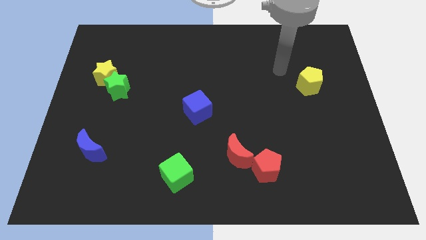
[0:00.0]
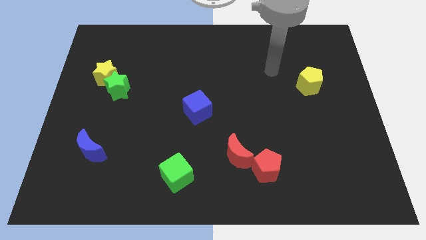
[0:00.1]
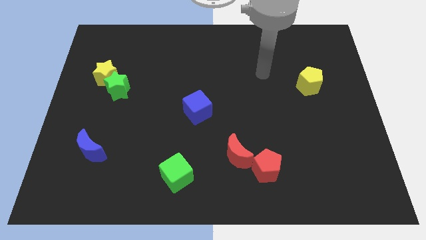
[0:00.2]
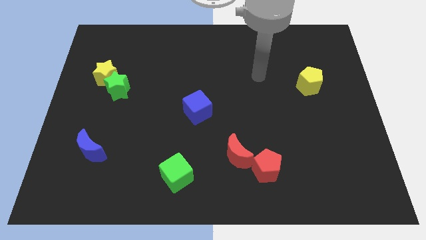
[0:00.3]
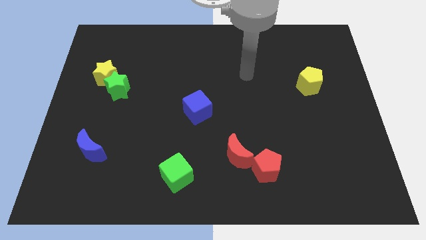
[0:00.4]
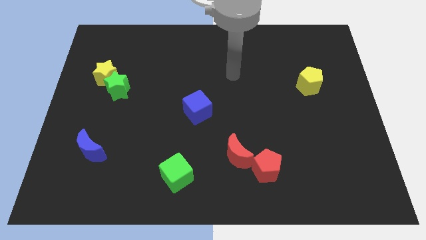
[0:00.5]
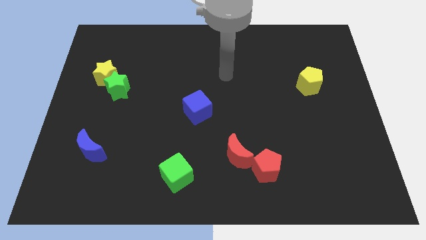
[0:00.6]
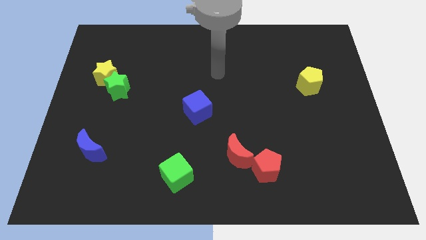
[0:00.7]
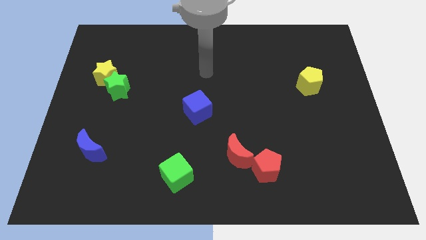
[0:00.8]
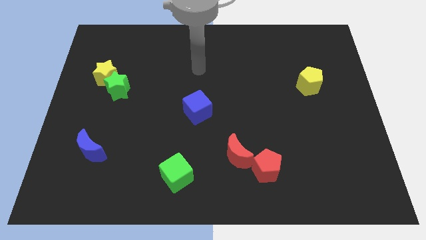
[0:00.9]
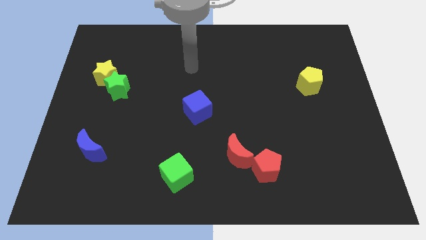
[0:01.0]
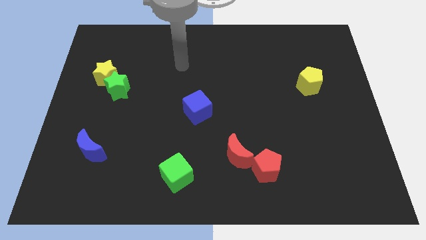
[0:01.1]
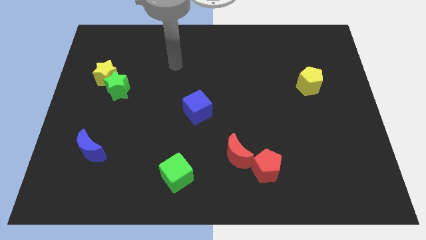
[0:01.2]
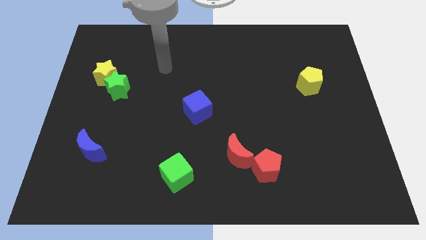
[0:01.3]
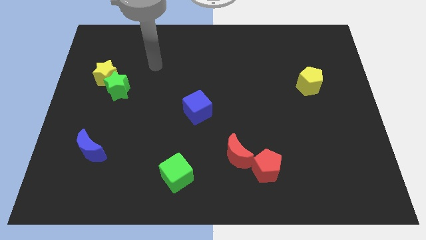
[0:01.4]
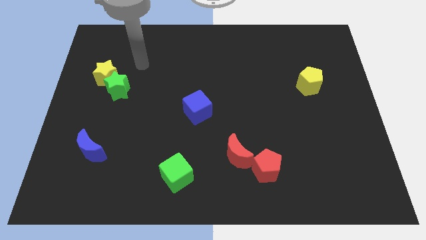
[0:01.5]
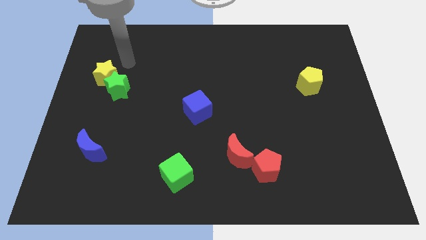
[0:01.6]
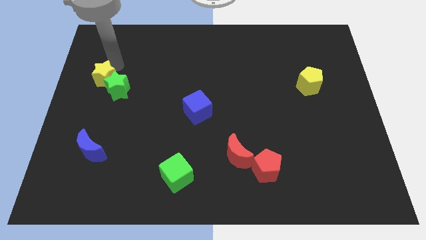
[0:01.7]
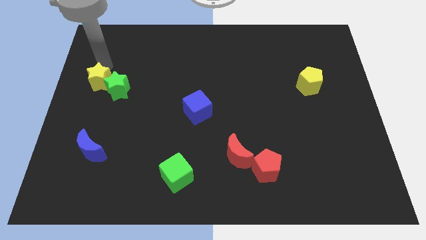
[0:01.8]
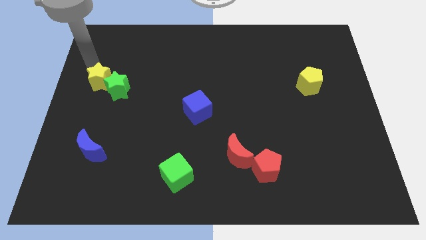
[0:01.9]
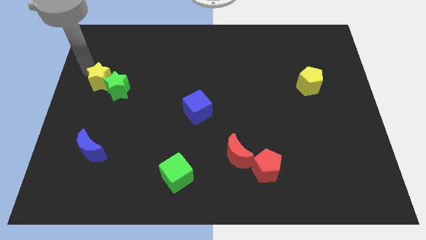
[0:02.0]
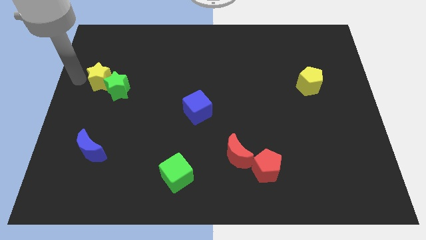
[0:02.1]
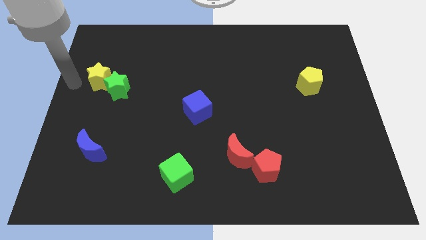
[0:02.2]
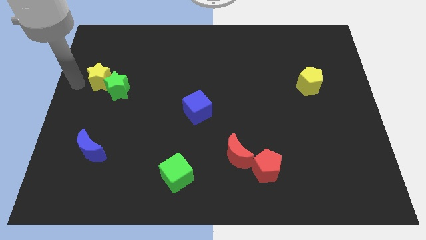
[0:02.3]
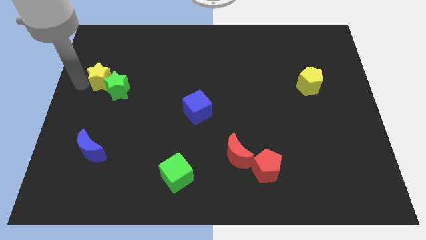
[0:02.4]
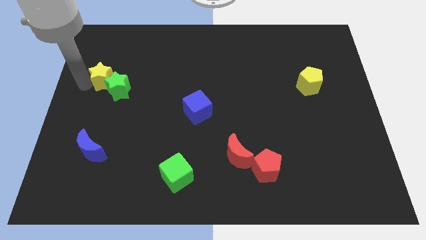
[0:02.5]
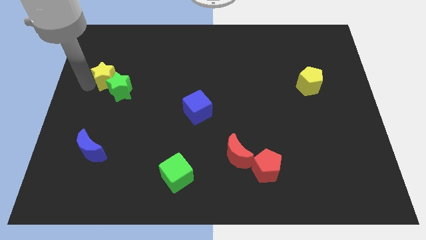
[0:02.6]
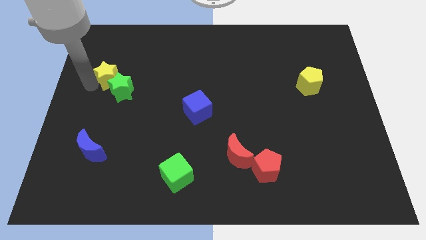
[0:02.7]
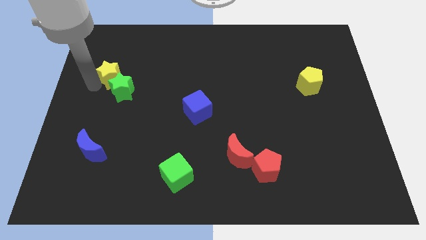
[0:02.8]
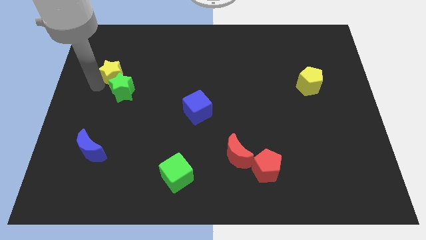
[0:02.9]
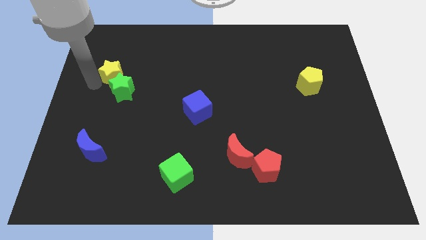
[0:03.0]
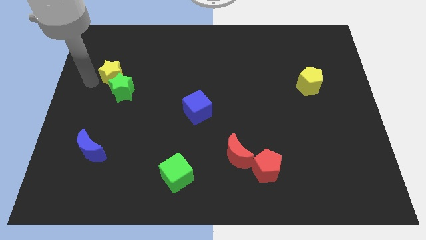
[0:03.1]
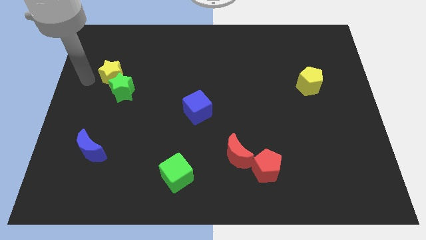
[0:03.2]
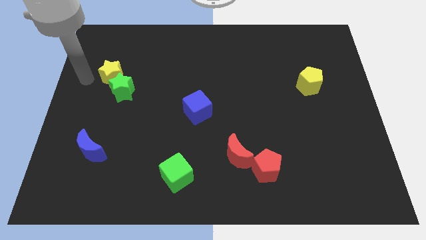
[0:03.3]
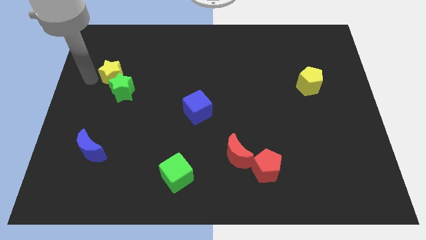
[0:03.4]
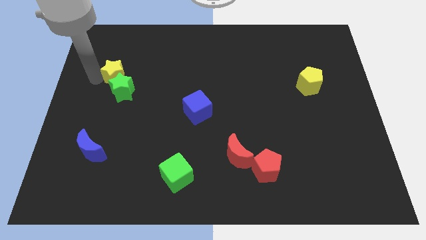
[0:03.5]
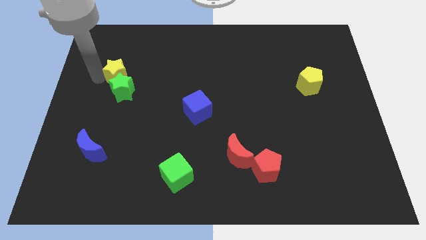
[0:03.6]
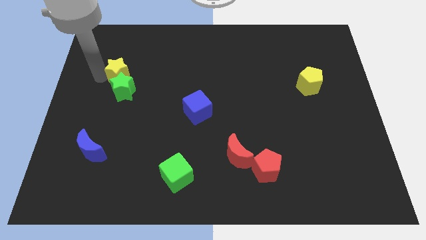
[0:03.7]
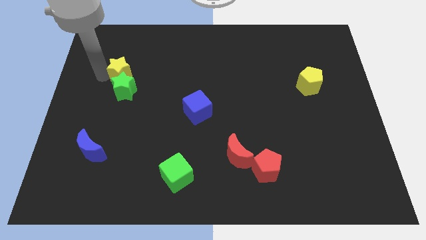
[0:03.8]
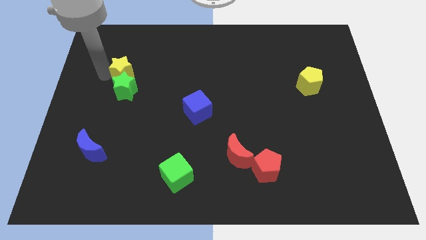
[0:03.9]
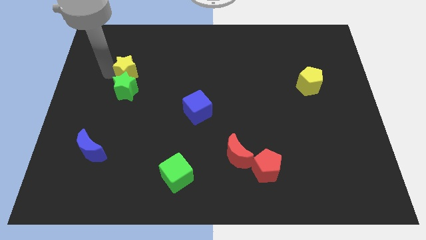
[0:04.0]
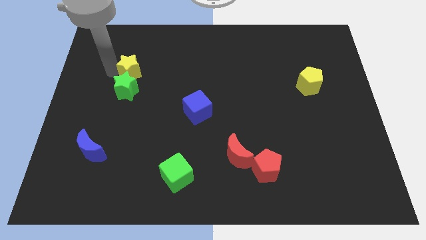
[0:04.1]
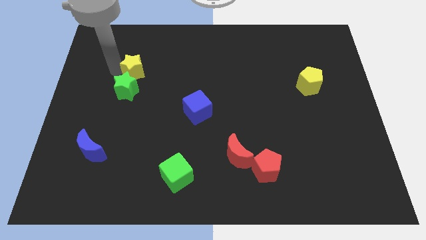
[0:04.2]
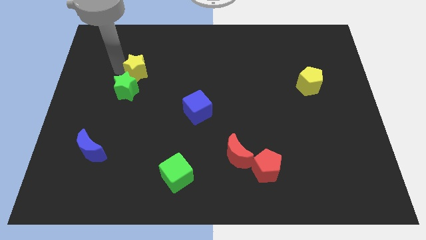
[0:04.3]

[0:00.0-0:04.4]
slightly push the yellow star right

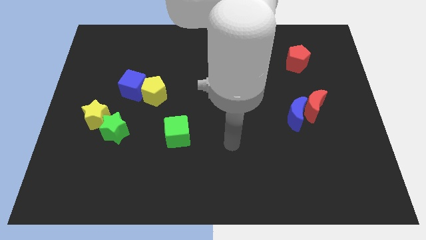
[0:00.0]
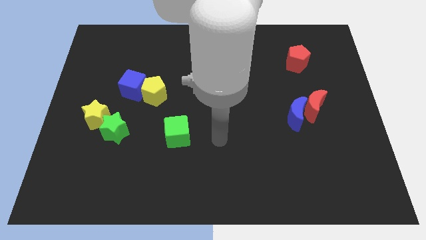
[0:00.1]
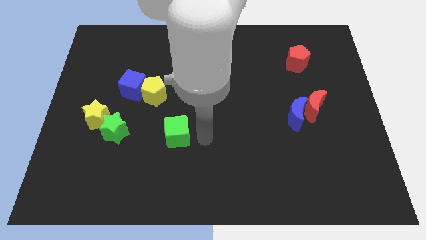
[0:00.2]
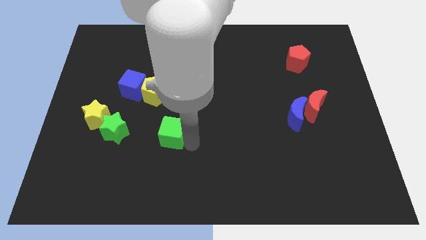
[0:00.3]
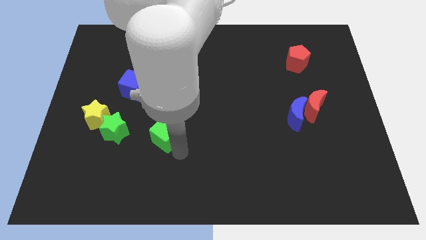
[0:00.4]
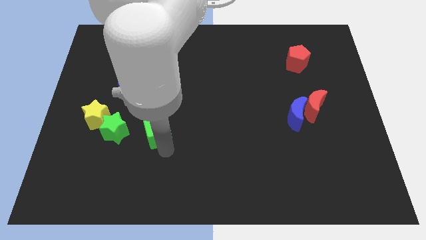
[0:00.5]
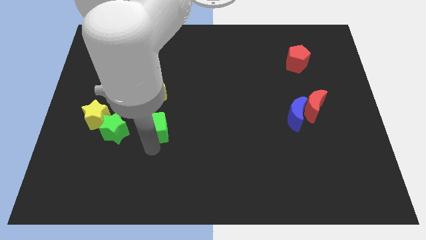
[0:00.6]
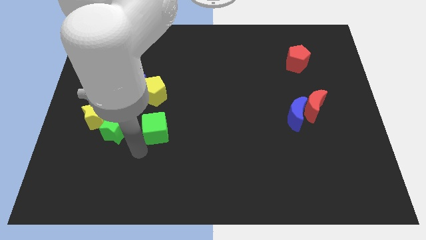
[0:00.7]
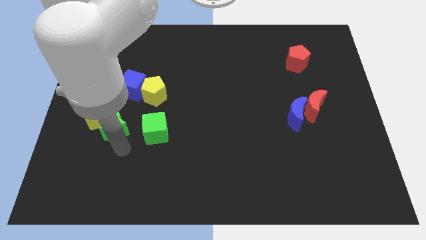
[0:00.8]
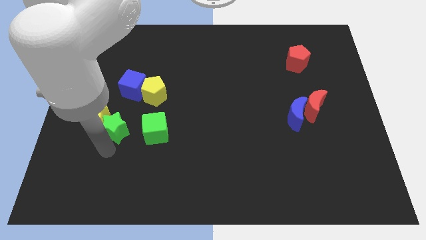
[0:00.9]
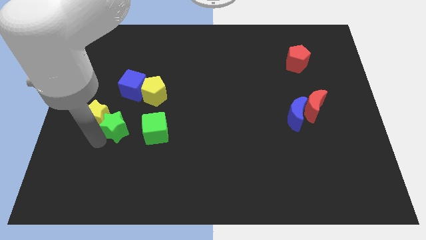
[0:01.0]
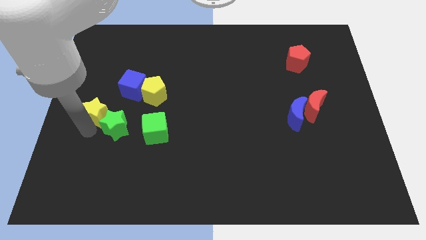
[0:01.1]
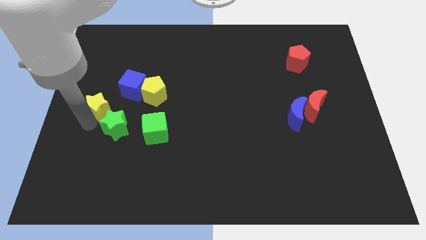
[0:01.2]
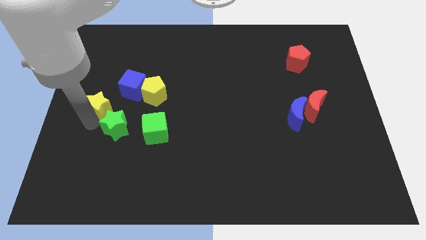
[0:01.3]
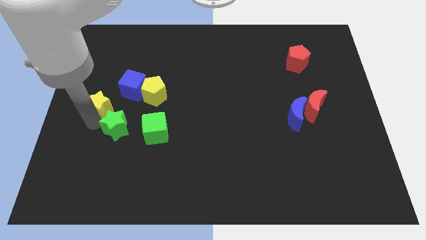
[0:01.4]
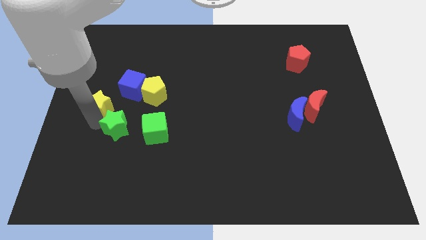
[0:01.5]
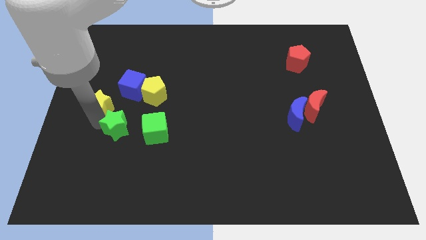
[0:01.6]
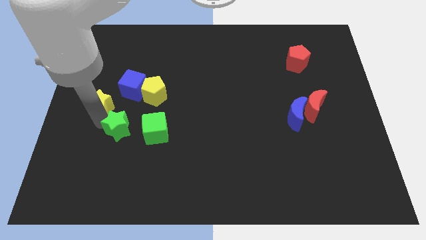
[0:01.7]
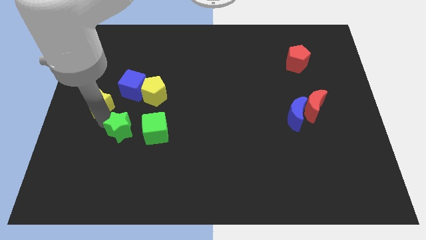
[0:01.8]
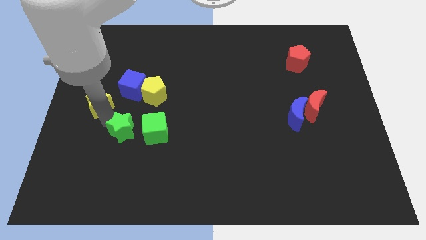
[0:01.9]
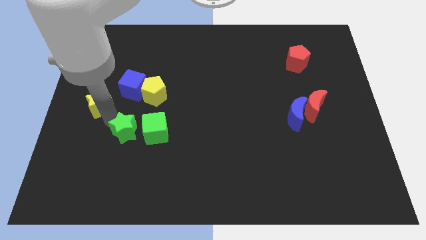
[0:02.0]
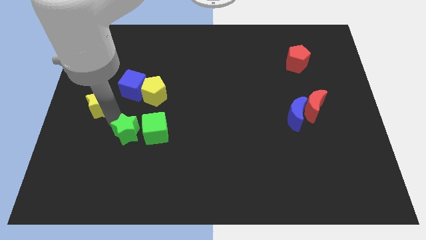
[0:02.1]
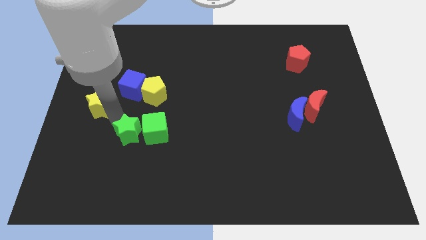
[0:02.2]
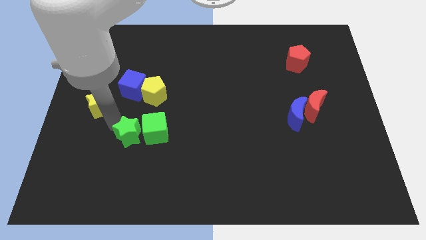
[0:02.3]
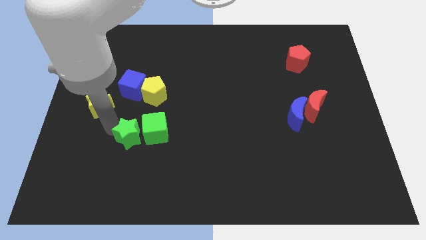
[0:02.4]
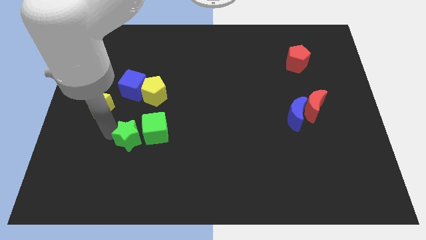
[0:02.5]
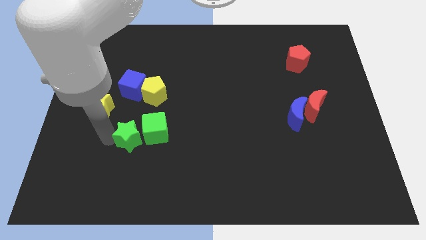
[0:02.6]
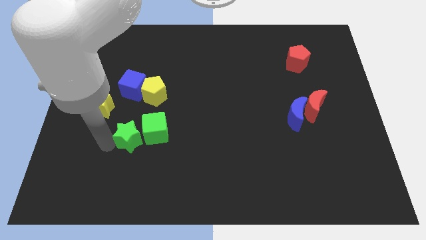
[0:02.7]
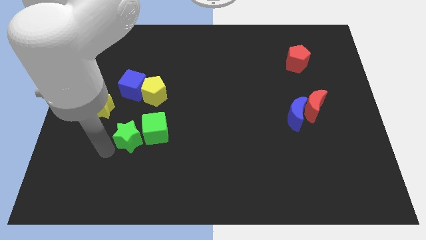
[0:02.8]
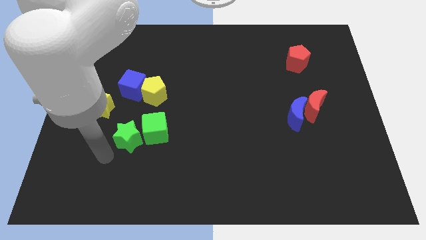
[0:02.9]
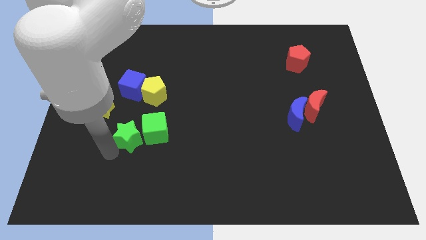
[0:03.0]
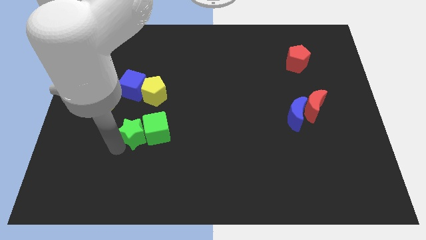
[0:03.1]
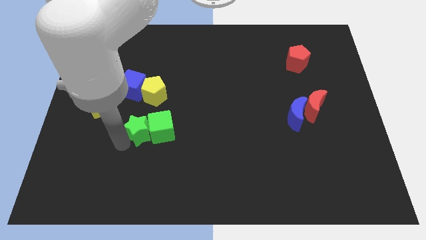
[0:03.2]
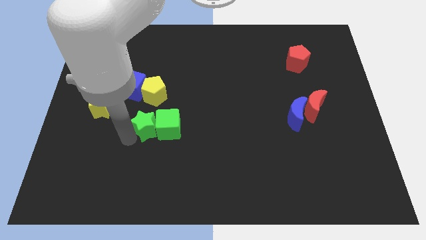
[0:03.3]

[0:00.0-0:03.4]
slightly push the green star right

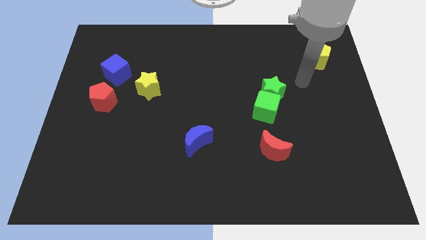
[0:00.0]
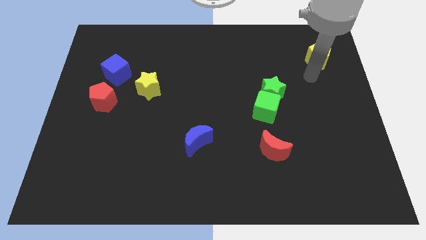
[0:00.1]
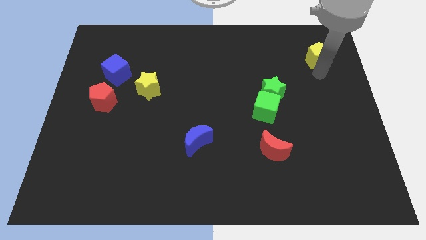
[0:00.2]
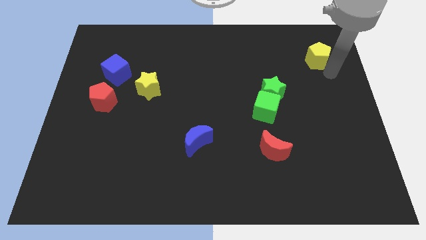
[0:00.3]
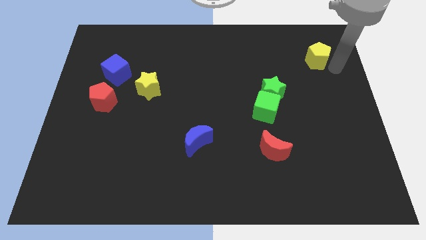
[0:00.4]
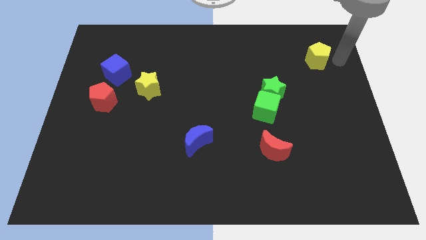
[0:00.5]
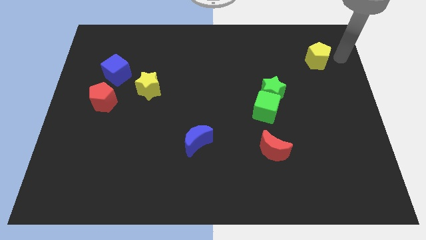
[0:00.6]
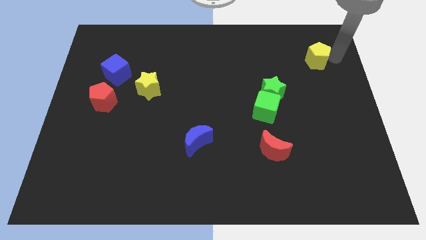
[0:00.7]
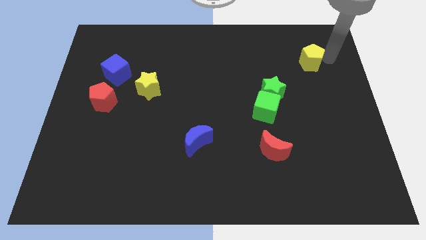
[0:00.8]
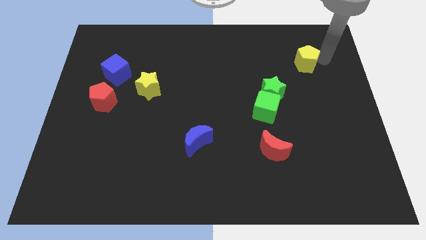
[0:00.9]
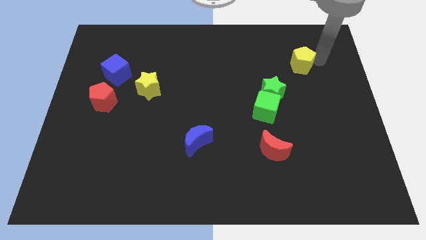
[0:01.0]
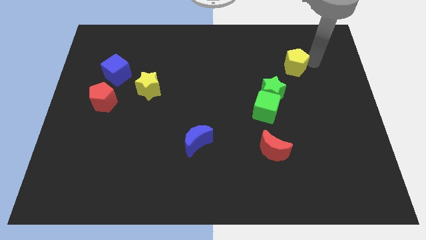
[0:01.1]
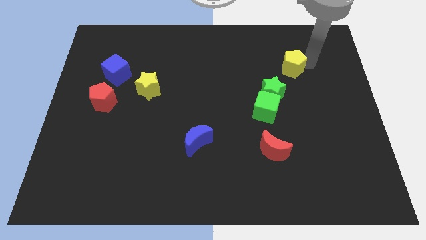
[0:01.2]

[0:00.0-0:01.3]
move the yellow pentagon to the left a bit
